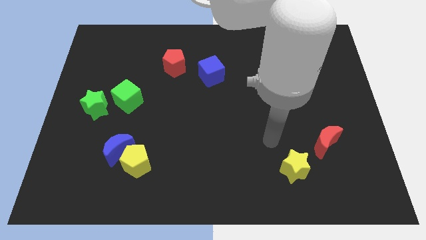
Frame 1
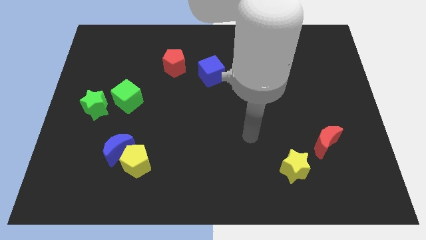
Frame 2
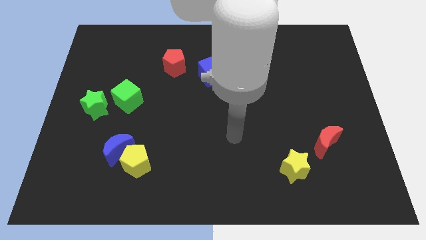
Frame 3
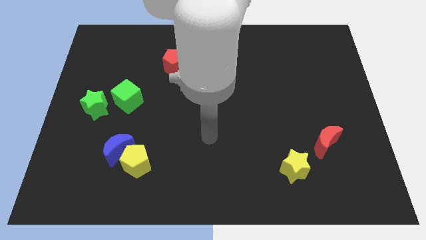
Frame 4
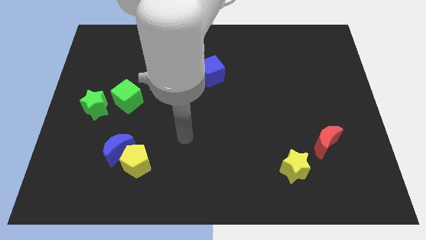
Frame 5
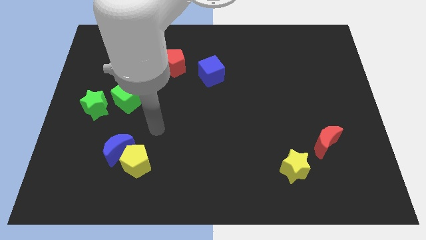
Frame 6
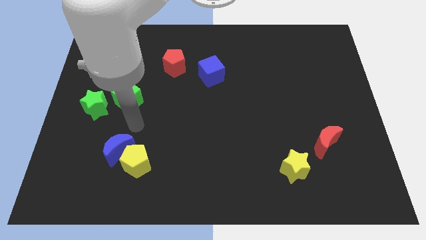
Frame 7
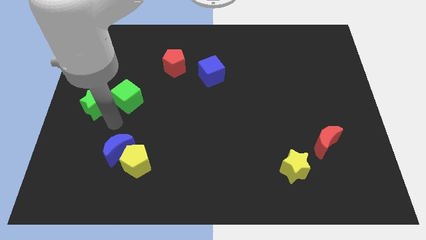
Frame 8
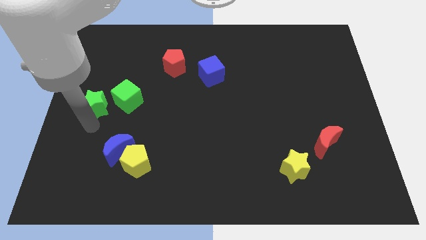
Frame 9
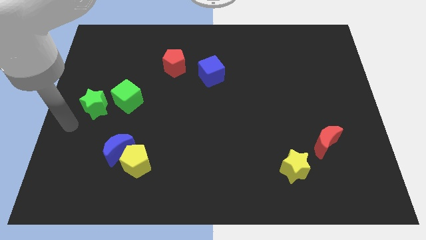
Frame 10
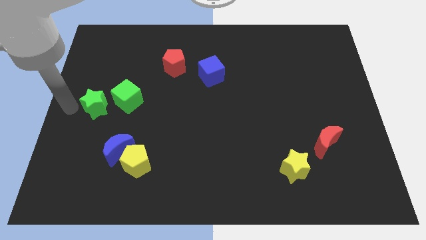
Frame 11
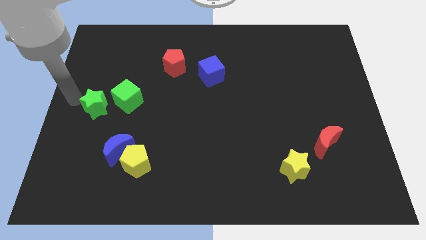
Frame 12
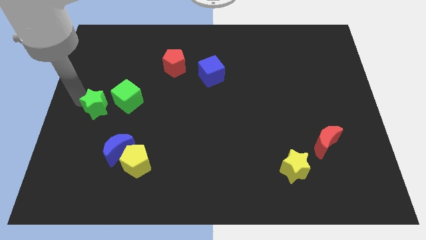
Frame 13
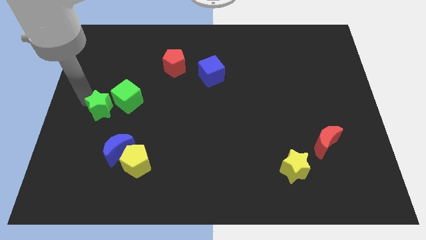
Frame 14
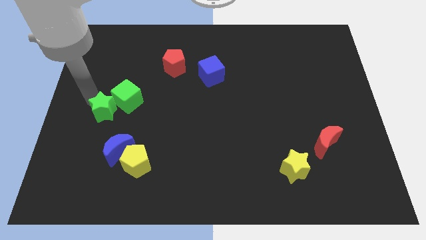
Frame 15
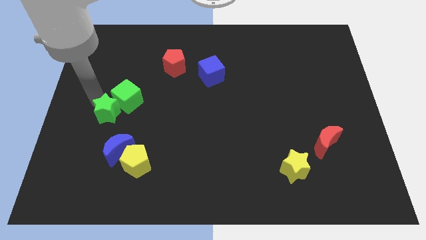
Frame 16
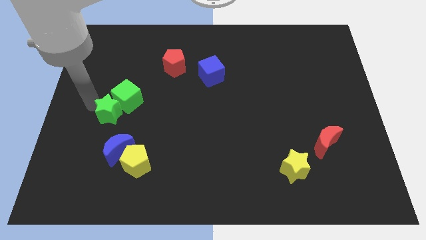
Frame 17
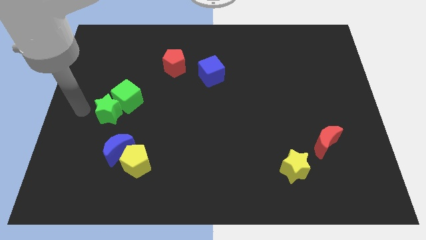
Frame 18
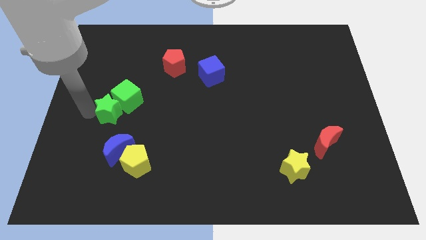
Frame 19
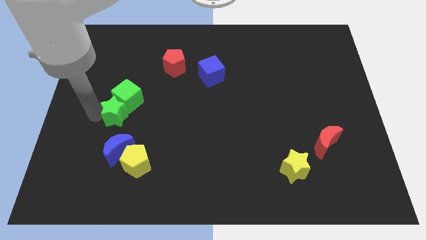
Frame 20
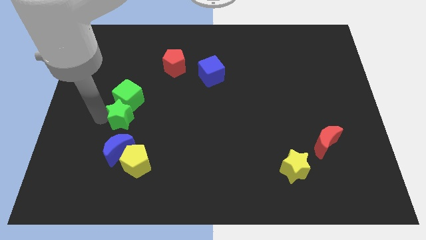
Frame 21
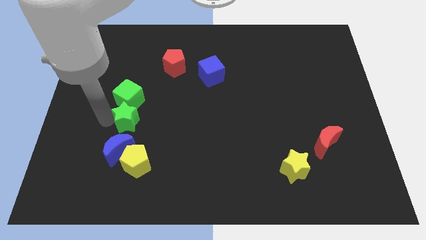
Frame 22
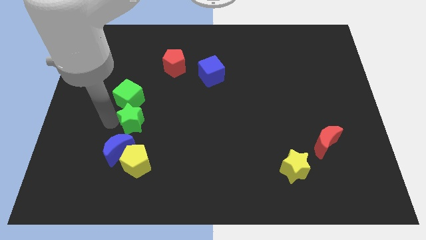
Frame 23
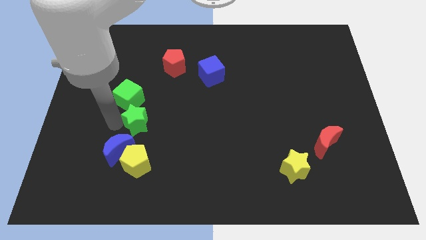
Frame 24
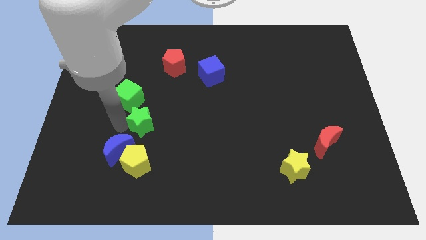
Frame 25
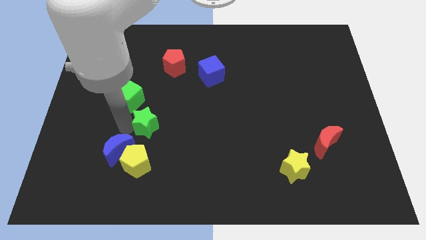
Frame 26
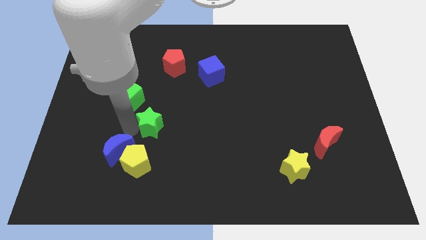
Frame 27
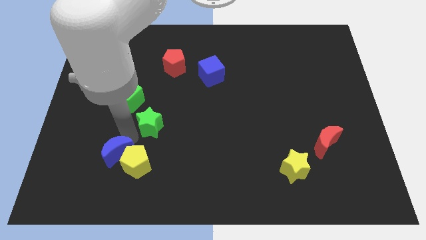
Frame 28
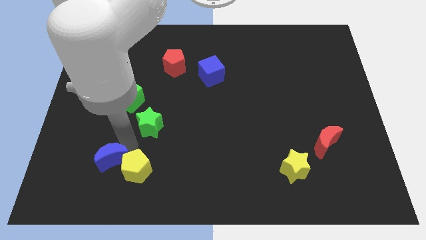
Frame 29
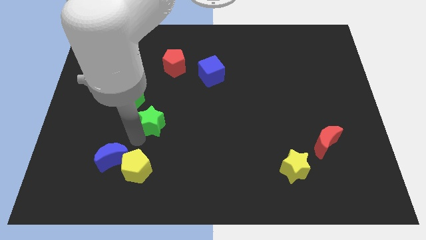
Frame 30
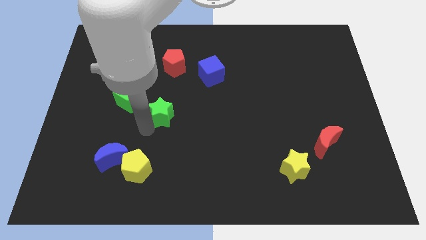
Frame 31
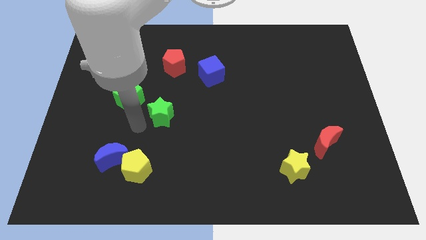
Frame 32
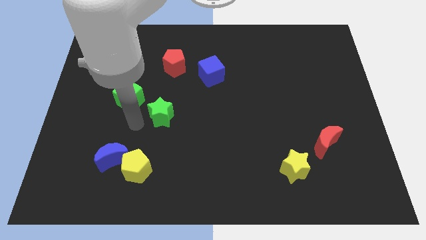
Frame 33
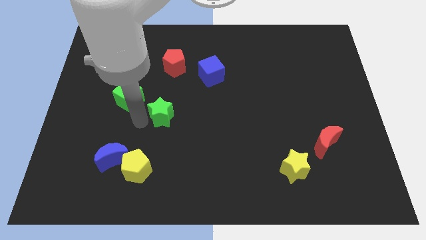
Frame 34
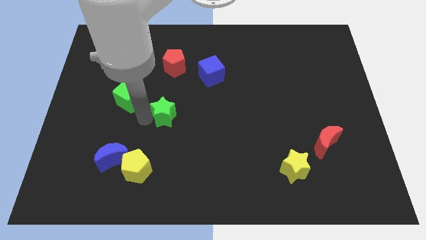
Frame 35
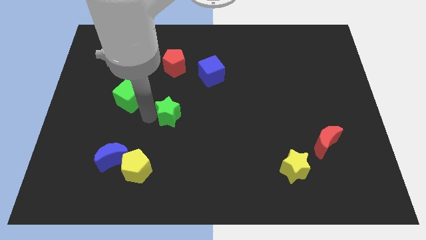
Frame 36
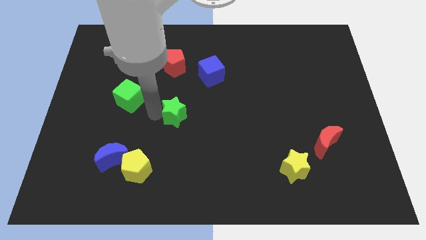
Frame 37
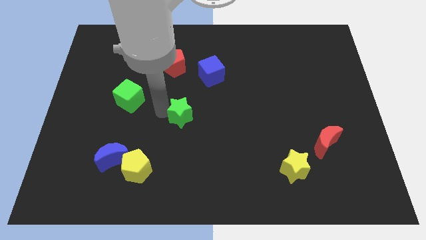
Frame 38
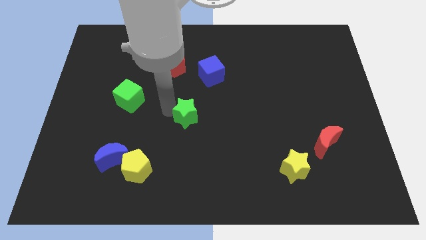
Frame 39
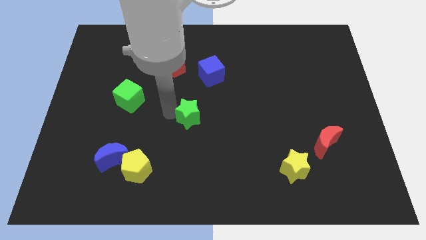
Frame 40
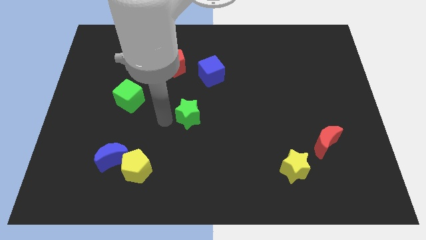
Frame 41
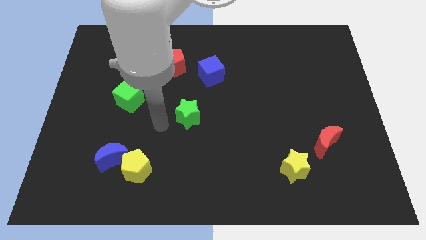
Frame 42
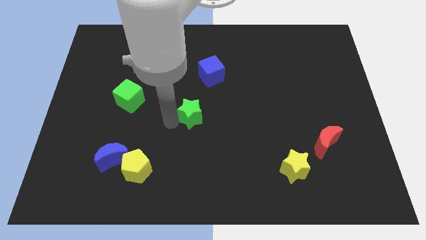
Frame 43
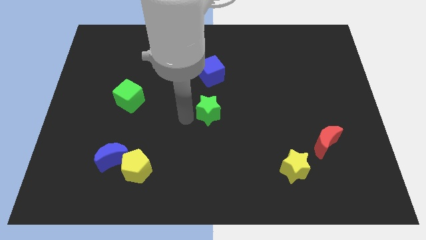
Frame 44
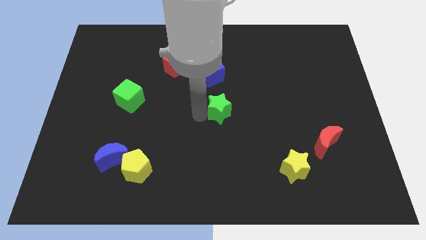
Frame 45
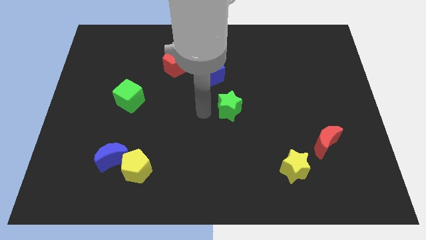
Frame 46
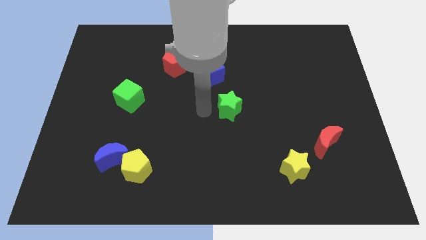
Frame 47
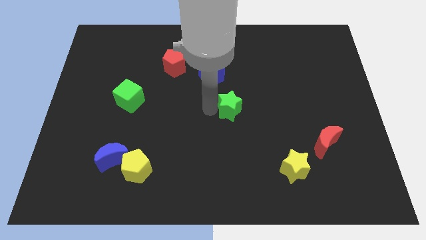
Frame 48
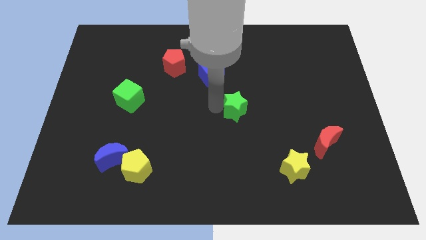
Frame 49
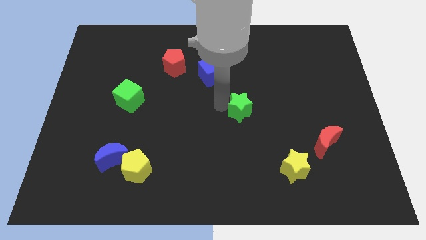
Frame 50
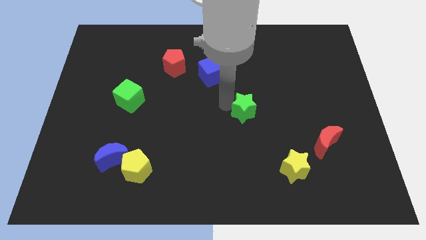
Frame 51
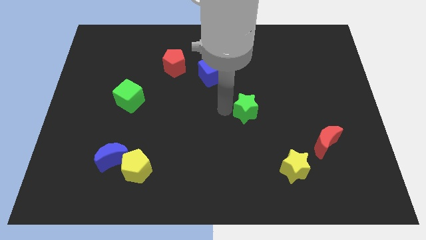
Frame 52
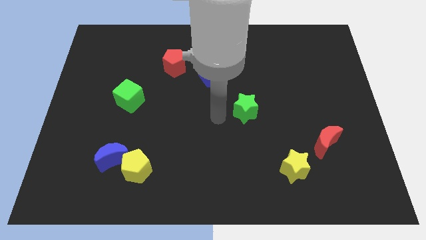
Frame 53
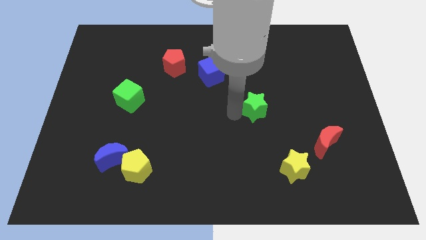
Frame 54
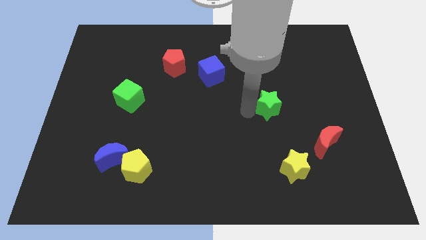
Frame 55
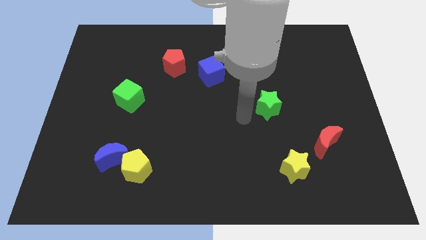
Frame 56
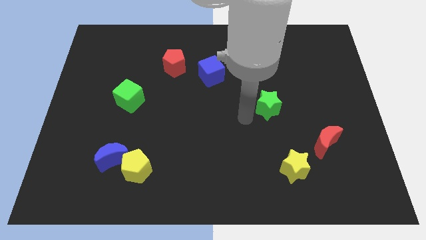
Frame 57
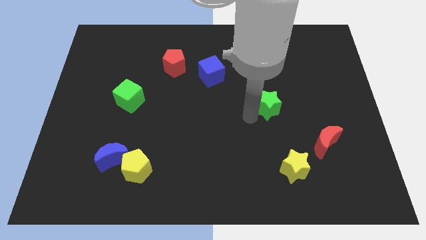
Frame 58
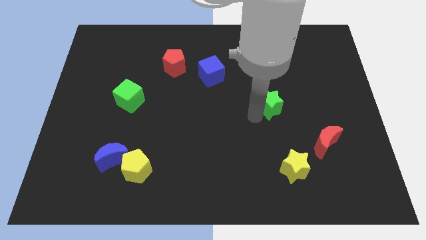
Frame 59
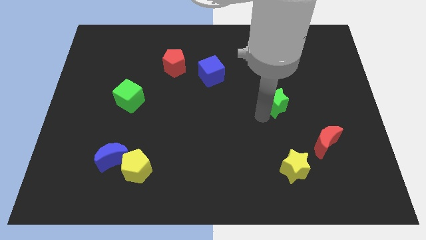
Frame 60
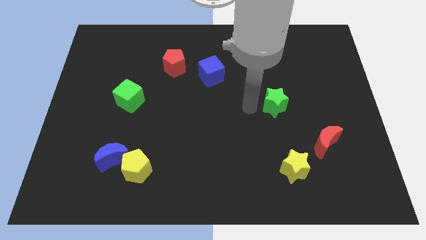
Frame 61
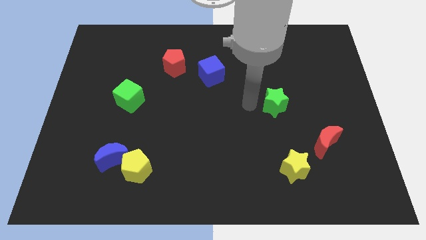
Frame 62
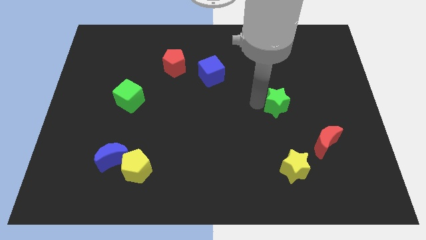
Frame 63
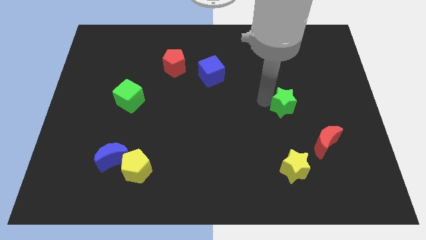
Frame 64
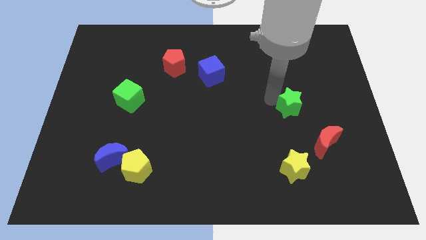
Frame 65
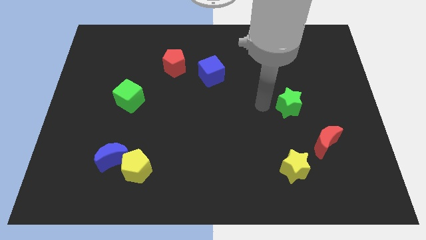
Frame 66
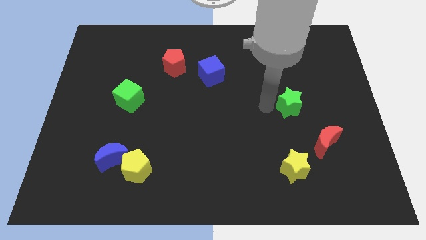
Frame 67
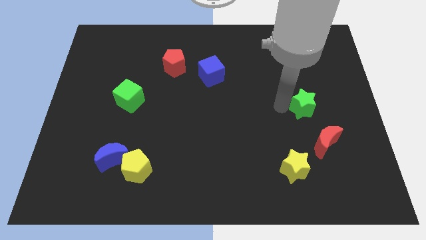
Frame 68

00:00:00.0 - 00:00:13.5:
push the green star to the top side of the red moon
